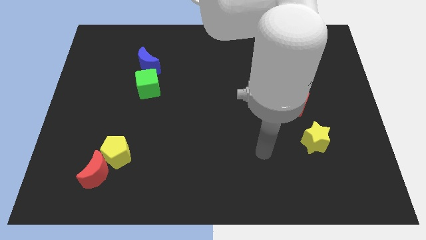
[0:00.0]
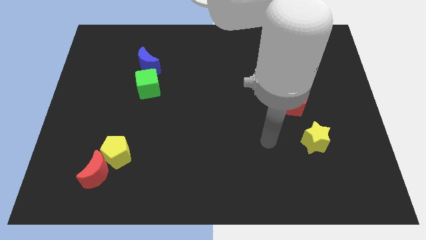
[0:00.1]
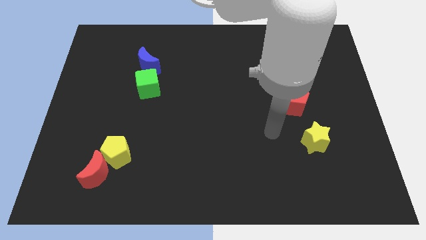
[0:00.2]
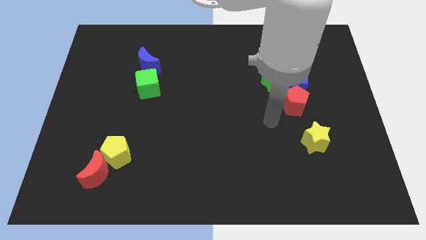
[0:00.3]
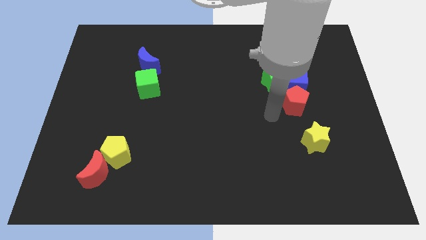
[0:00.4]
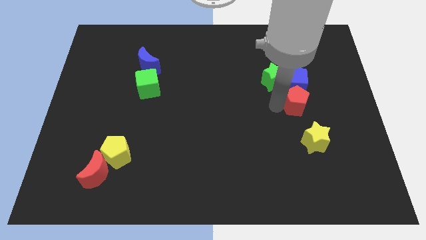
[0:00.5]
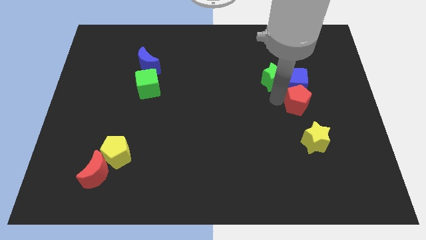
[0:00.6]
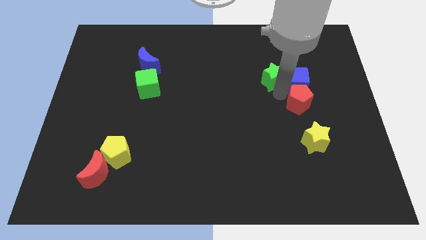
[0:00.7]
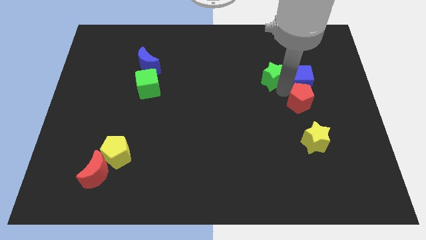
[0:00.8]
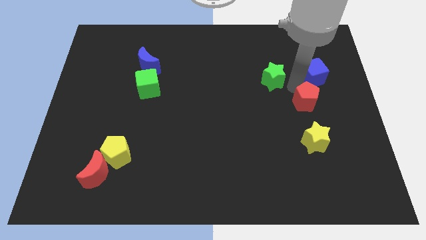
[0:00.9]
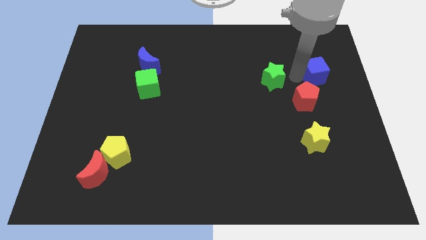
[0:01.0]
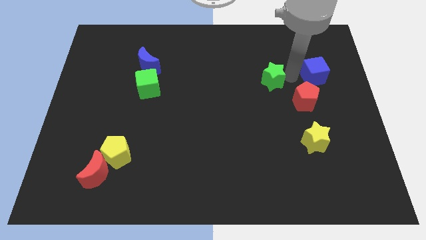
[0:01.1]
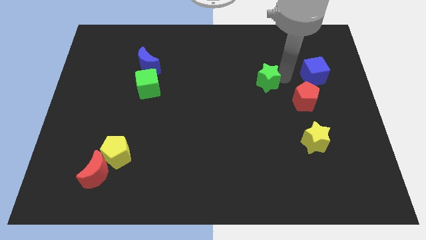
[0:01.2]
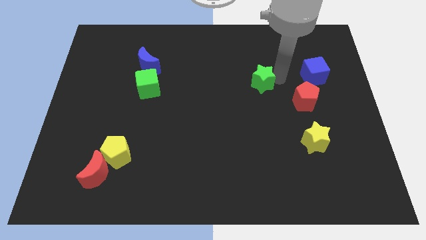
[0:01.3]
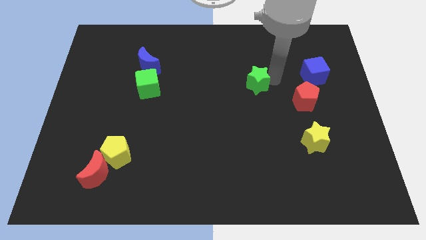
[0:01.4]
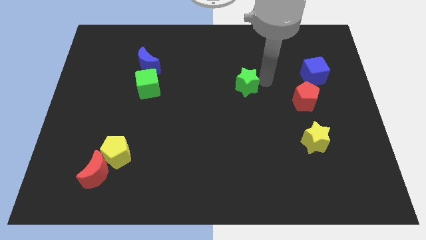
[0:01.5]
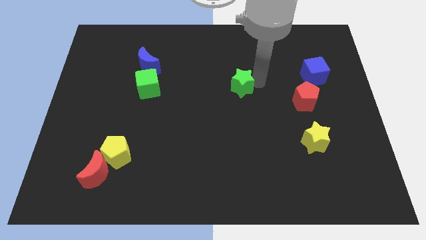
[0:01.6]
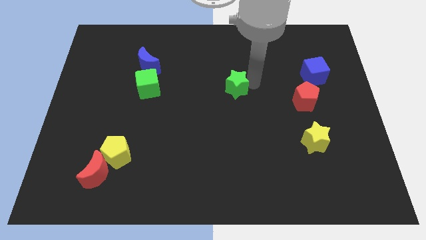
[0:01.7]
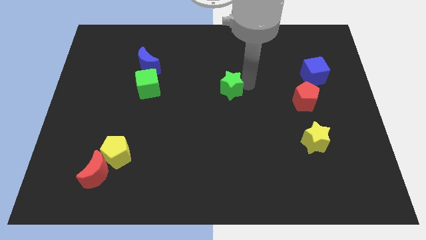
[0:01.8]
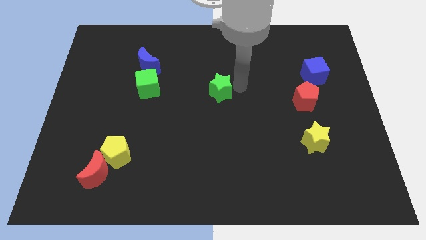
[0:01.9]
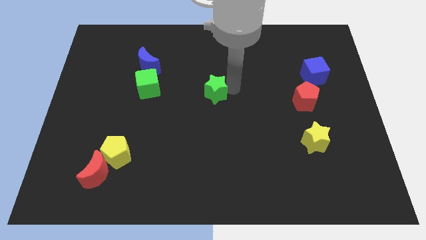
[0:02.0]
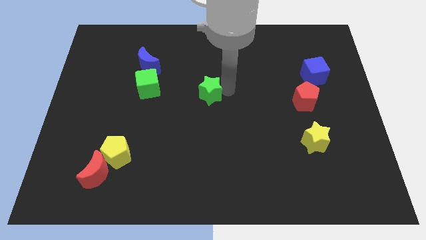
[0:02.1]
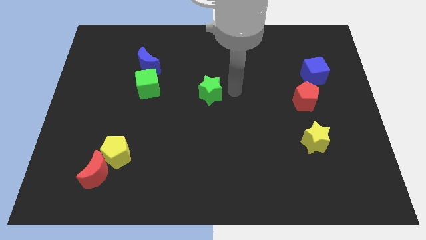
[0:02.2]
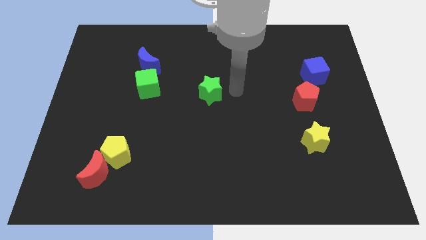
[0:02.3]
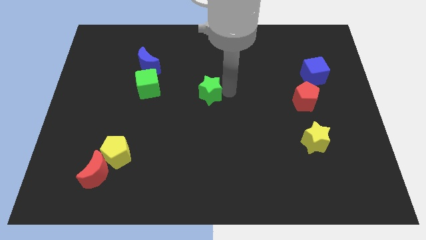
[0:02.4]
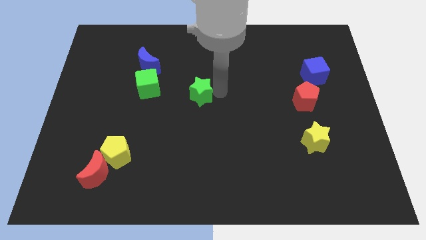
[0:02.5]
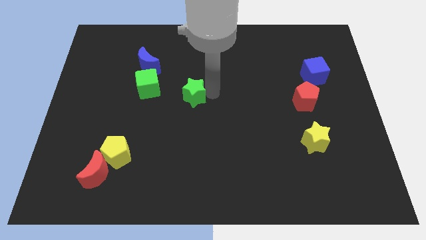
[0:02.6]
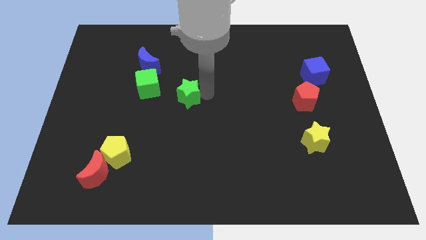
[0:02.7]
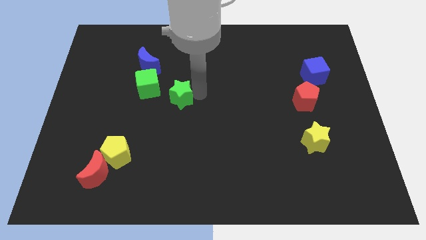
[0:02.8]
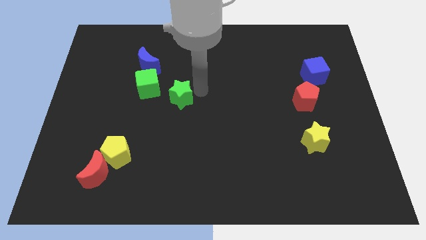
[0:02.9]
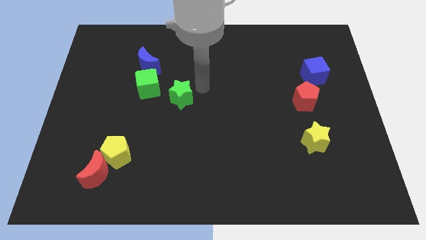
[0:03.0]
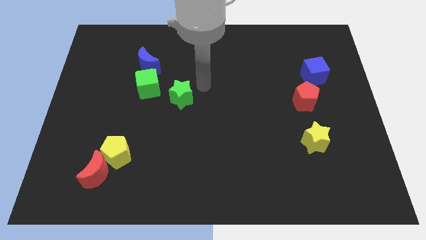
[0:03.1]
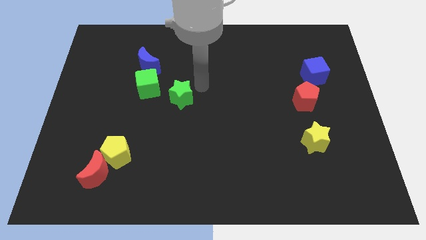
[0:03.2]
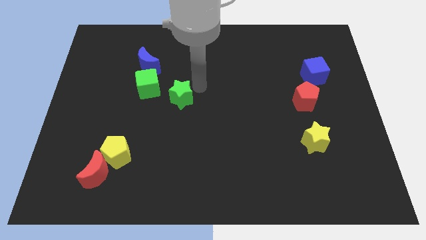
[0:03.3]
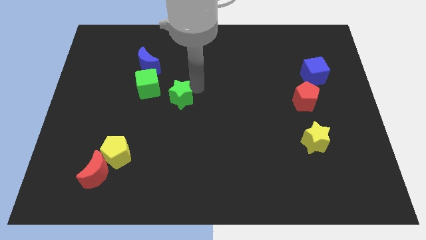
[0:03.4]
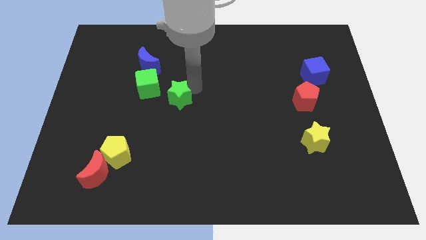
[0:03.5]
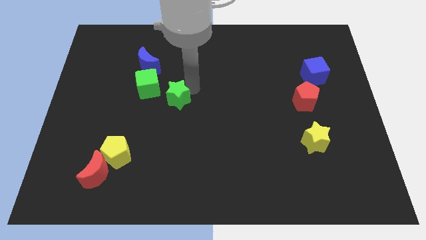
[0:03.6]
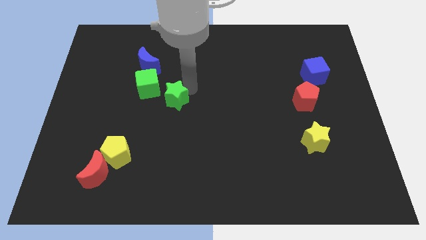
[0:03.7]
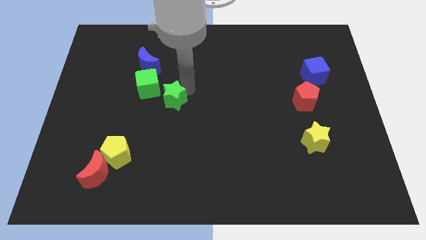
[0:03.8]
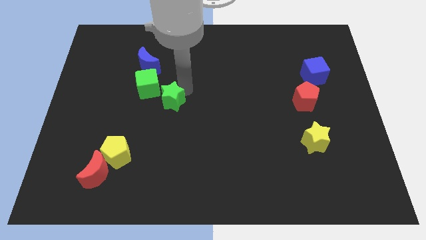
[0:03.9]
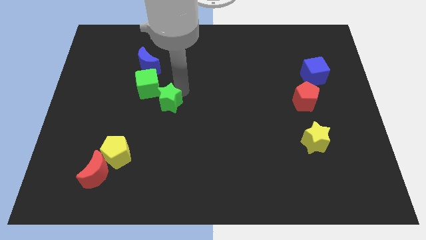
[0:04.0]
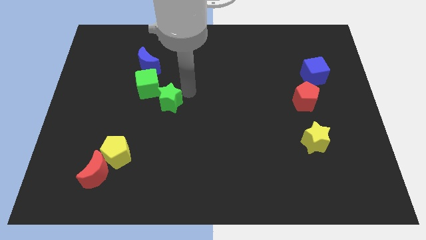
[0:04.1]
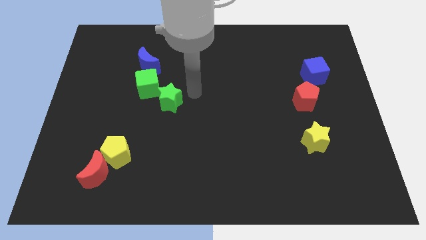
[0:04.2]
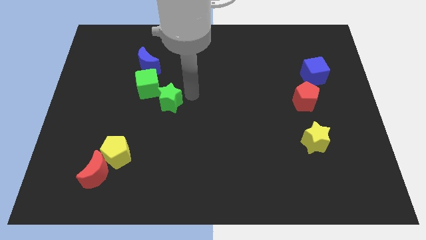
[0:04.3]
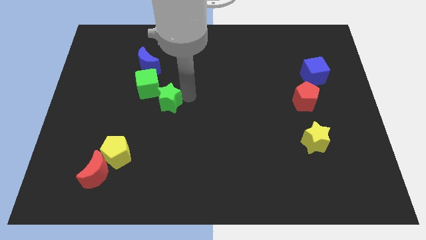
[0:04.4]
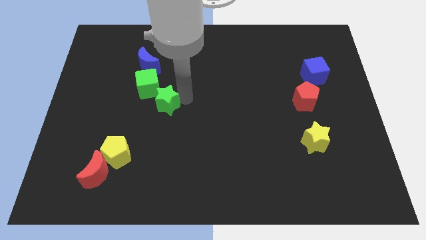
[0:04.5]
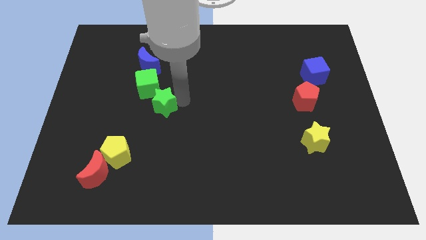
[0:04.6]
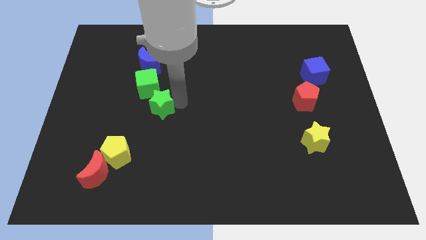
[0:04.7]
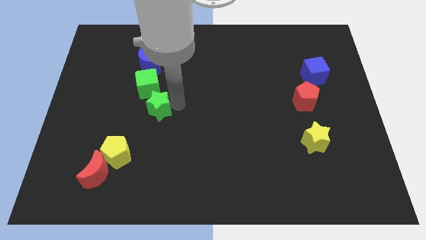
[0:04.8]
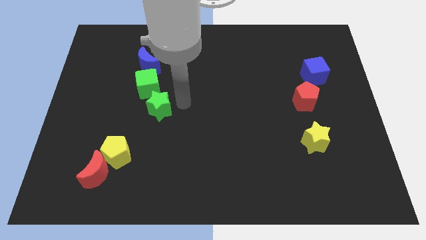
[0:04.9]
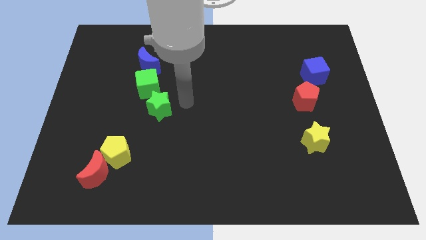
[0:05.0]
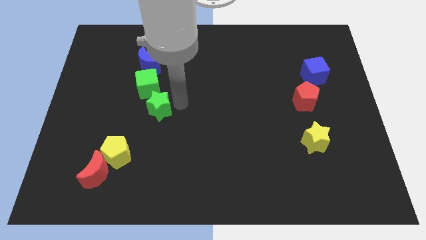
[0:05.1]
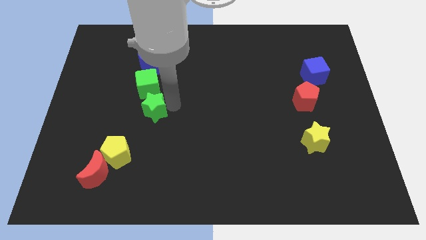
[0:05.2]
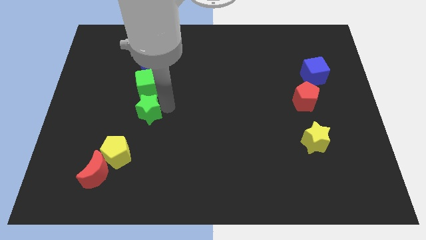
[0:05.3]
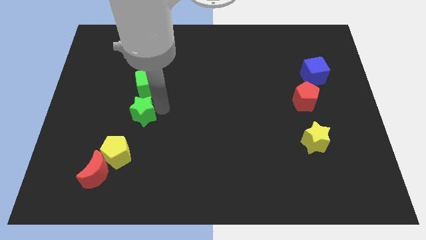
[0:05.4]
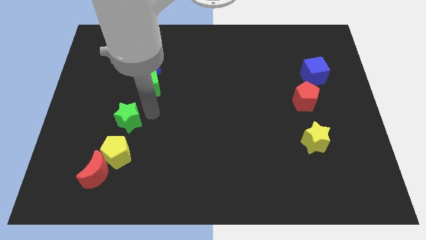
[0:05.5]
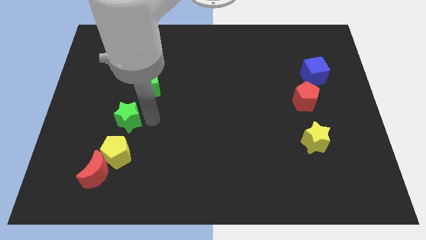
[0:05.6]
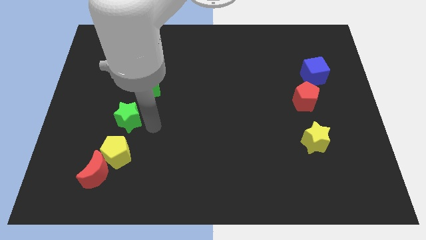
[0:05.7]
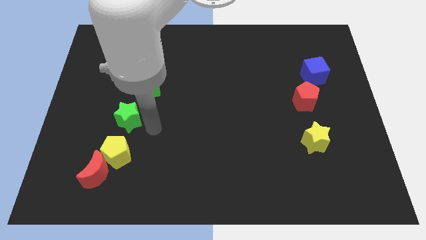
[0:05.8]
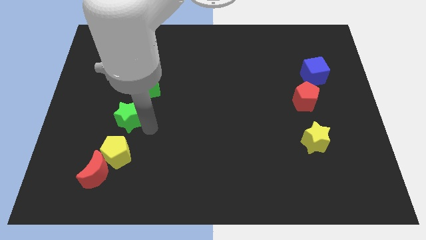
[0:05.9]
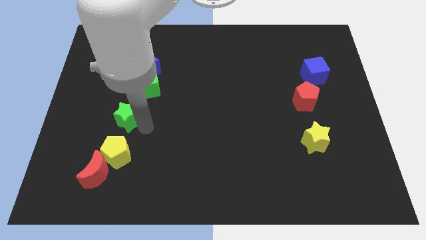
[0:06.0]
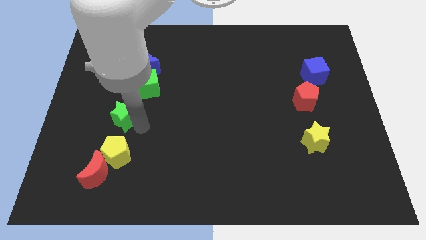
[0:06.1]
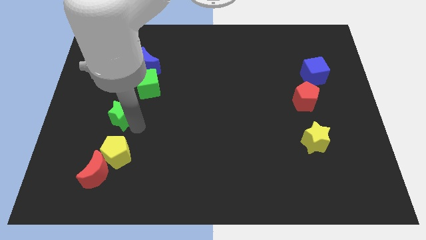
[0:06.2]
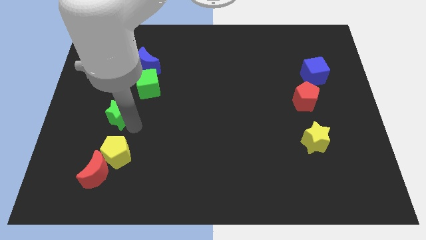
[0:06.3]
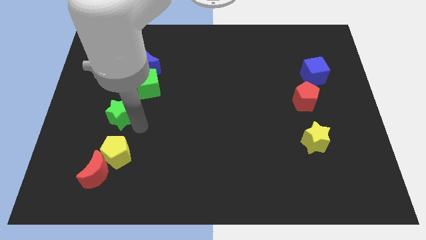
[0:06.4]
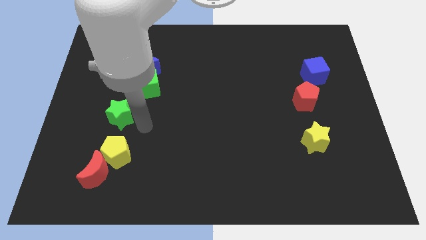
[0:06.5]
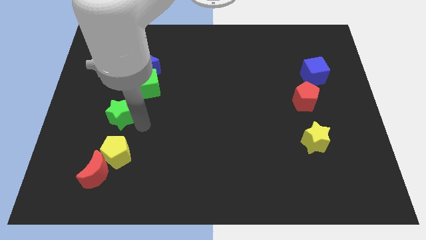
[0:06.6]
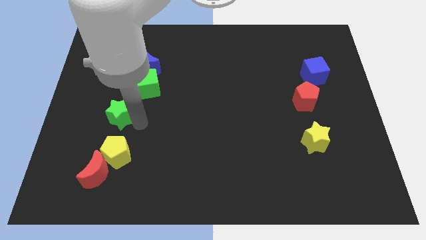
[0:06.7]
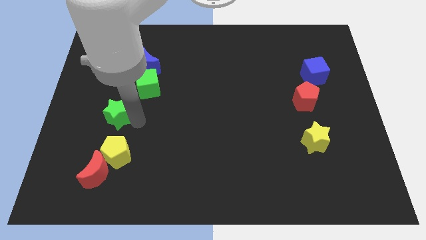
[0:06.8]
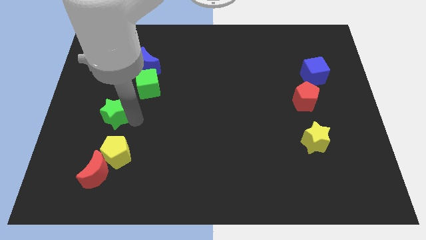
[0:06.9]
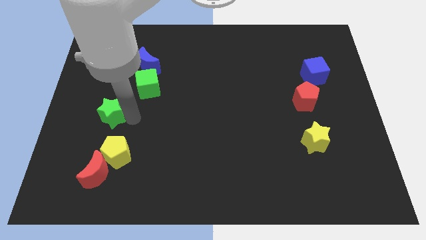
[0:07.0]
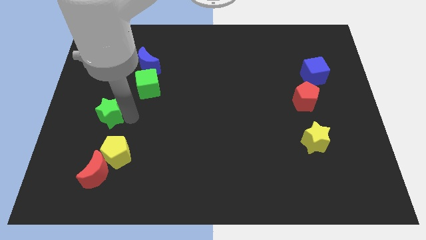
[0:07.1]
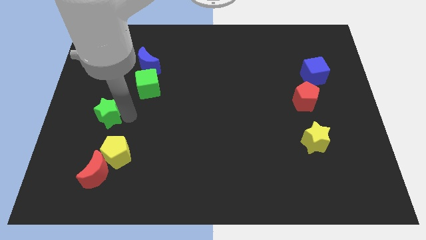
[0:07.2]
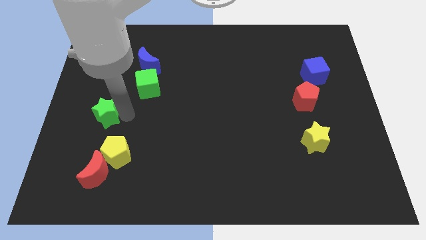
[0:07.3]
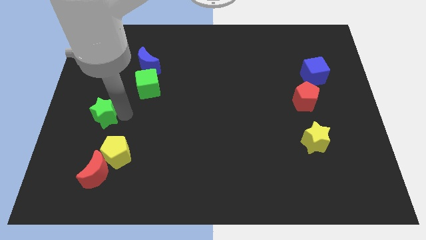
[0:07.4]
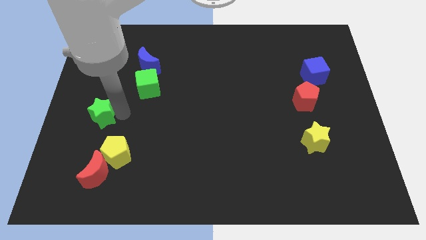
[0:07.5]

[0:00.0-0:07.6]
push the green star to the left side of the board

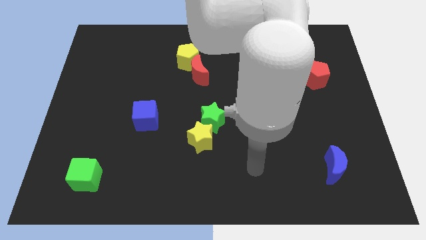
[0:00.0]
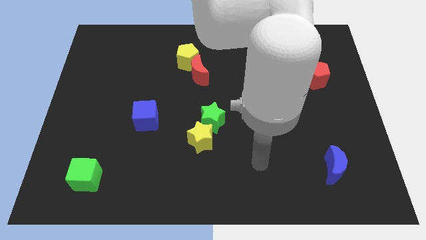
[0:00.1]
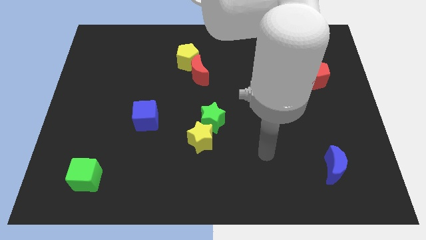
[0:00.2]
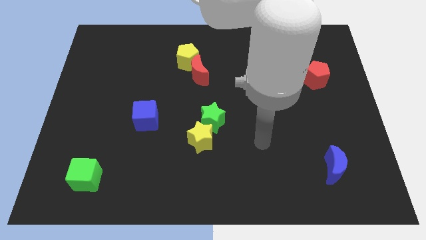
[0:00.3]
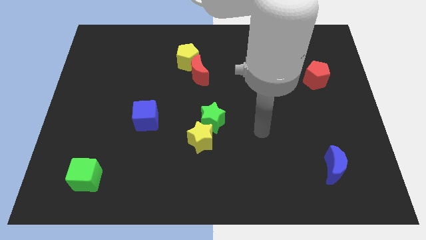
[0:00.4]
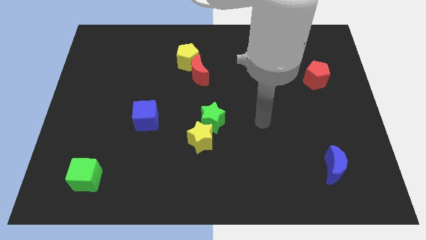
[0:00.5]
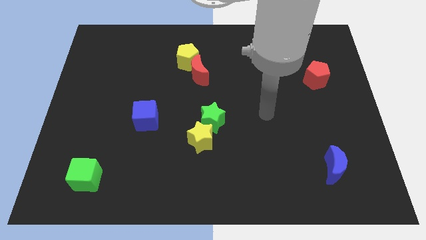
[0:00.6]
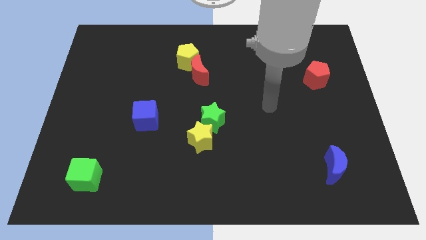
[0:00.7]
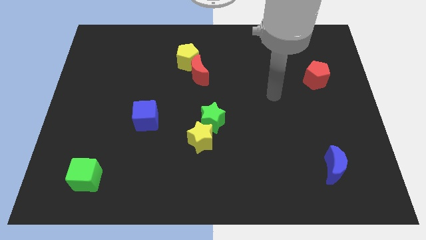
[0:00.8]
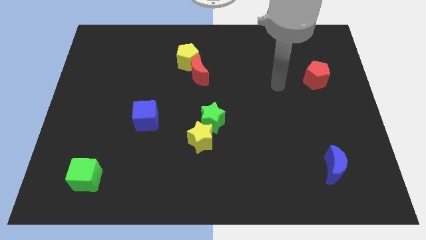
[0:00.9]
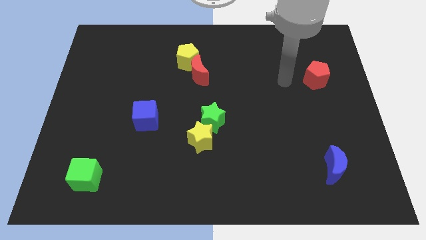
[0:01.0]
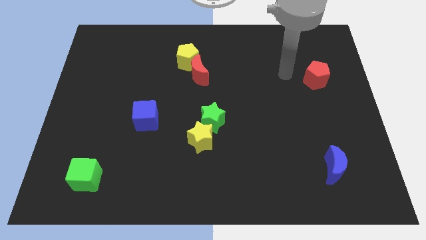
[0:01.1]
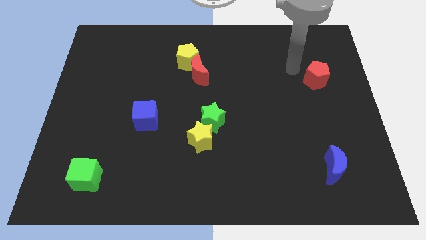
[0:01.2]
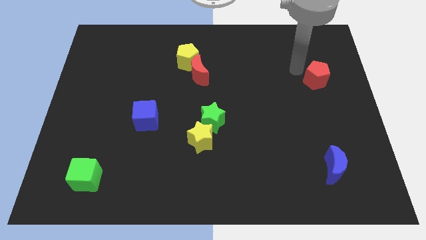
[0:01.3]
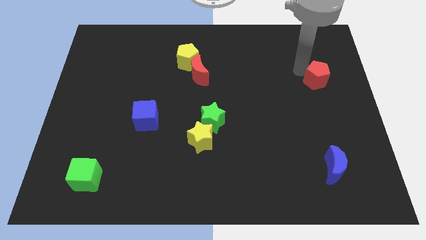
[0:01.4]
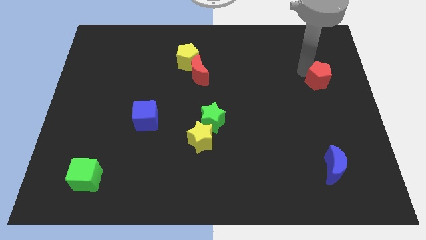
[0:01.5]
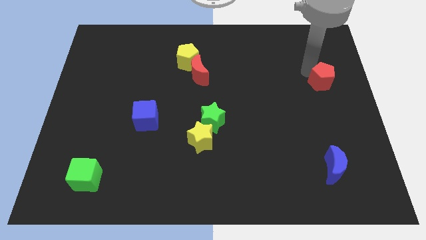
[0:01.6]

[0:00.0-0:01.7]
push the red pentagon to the center right
